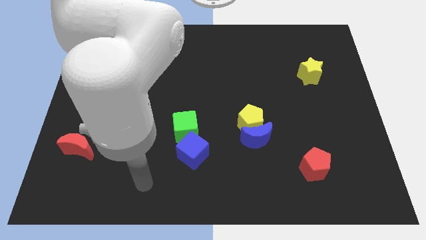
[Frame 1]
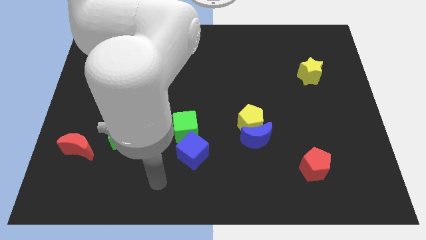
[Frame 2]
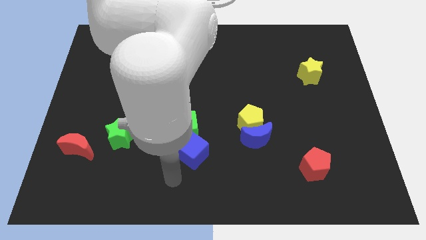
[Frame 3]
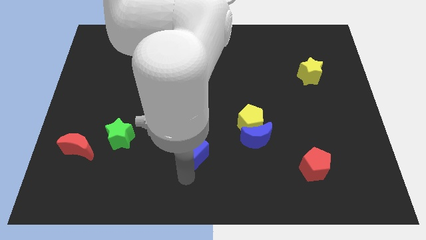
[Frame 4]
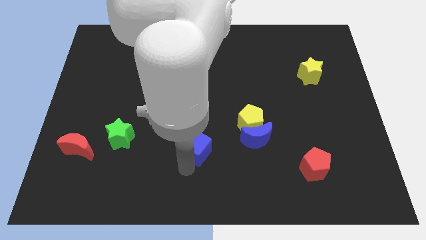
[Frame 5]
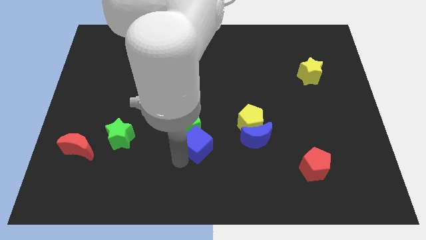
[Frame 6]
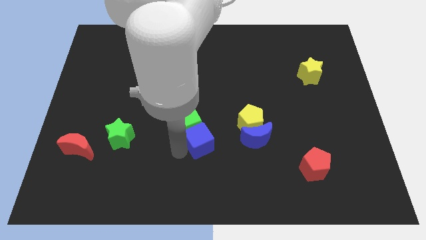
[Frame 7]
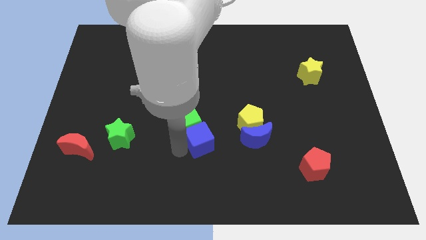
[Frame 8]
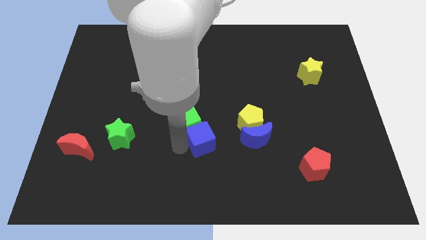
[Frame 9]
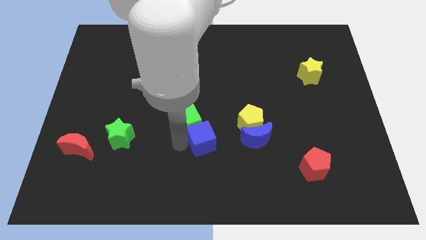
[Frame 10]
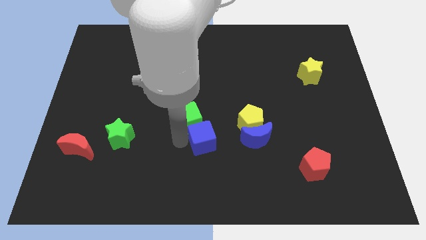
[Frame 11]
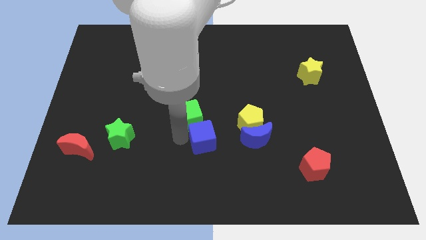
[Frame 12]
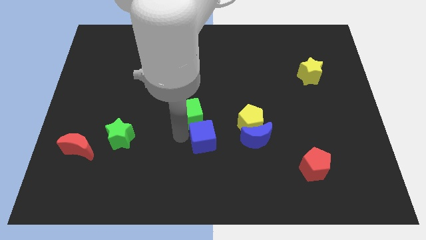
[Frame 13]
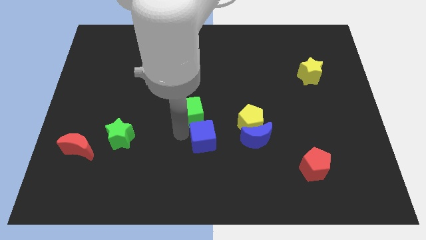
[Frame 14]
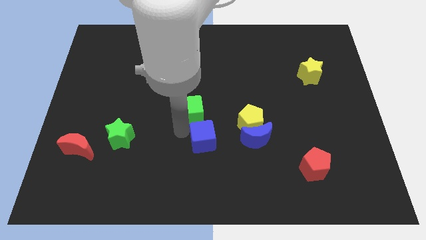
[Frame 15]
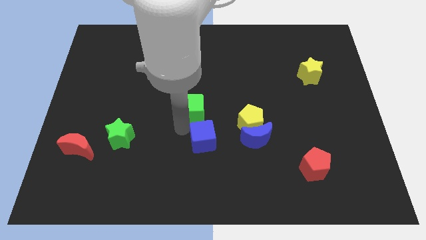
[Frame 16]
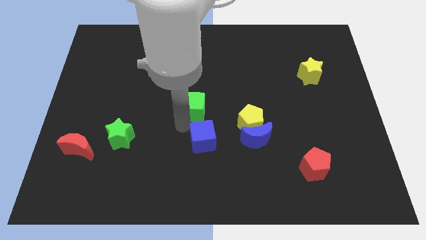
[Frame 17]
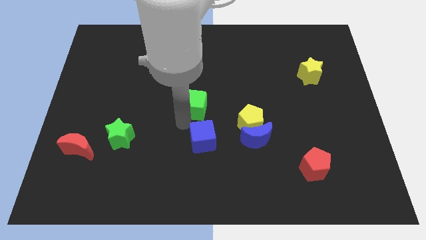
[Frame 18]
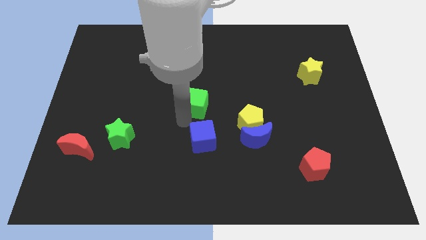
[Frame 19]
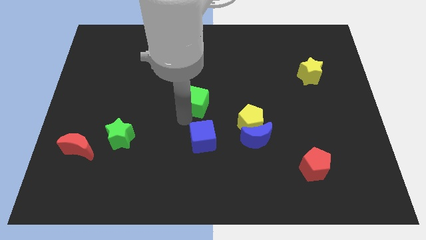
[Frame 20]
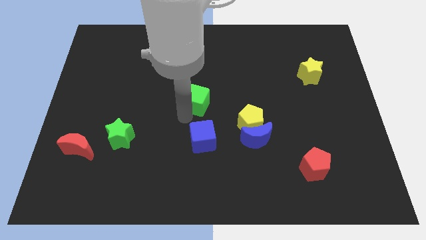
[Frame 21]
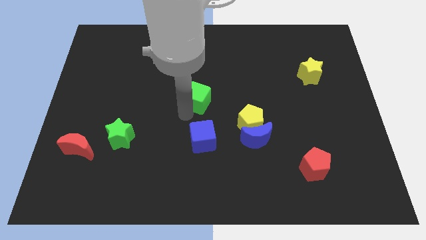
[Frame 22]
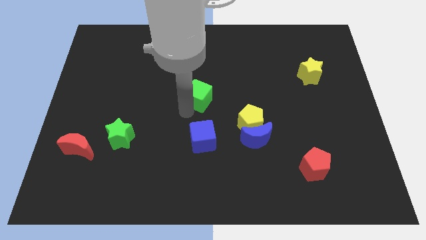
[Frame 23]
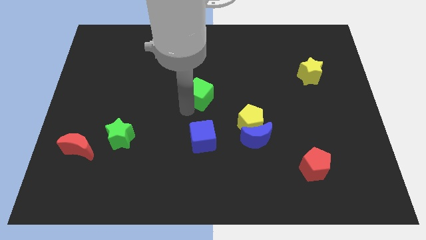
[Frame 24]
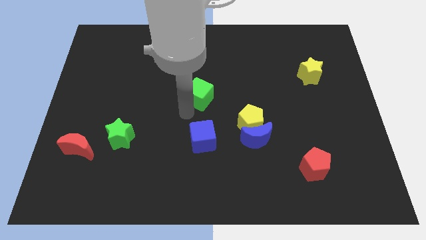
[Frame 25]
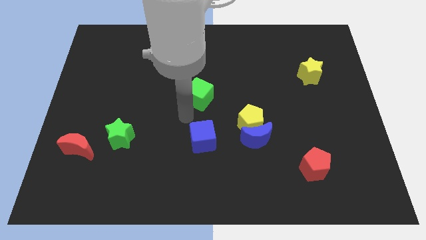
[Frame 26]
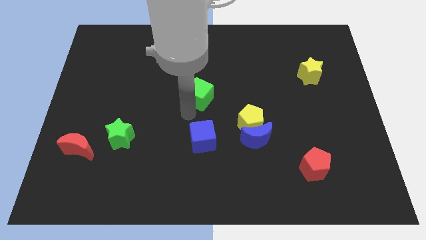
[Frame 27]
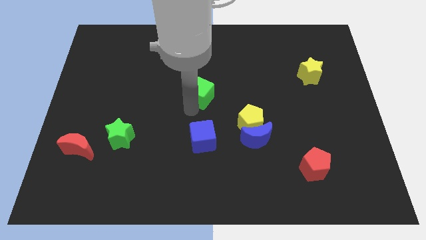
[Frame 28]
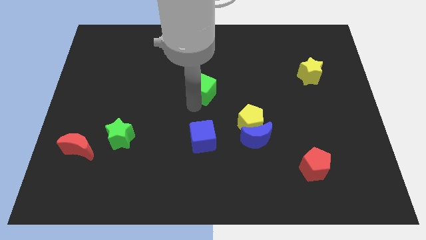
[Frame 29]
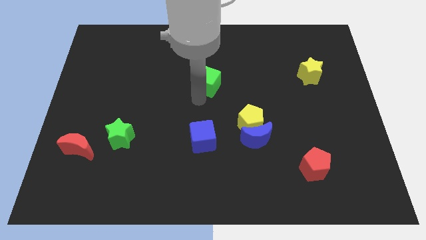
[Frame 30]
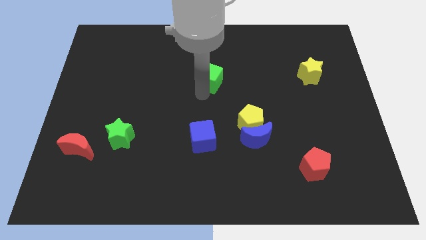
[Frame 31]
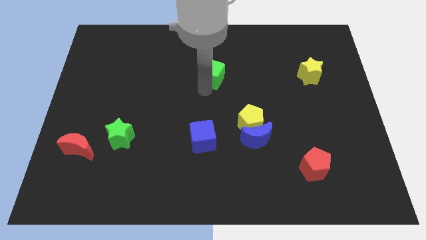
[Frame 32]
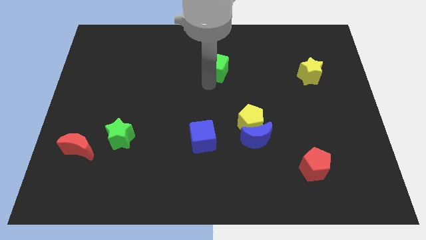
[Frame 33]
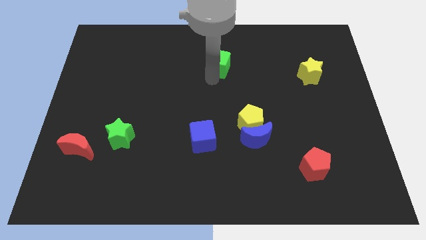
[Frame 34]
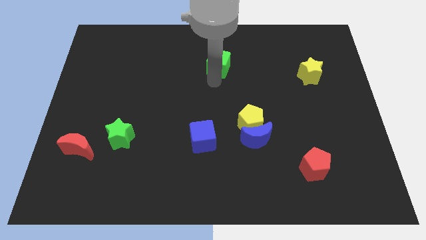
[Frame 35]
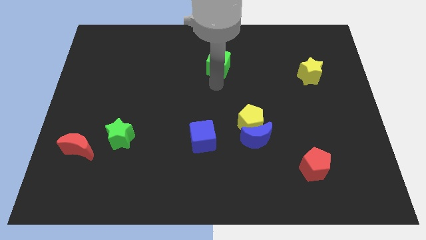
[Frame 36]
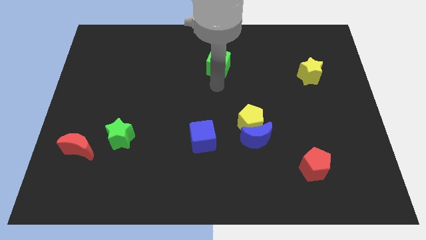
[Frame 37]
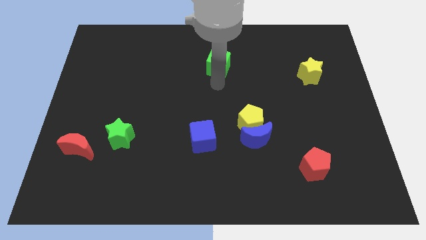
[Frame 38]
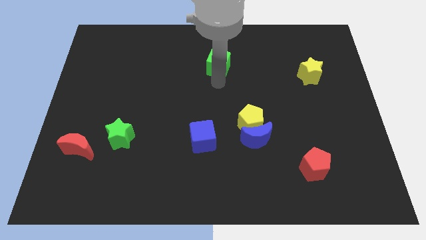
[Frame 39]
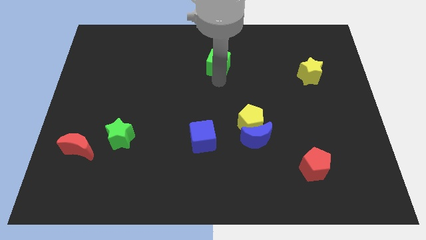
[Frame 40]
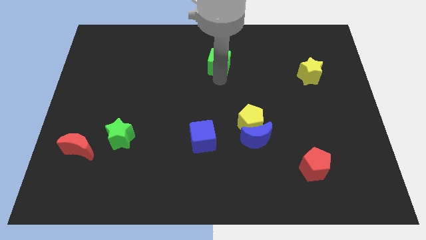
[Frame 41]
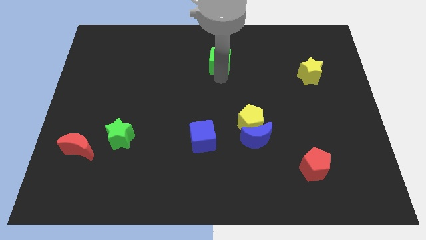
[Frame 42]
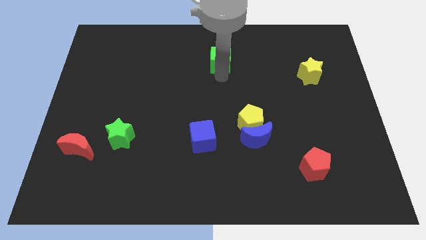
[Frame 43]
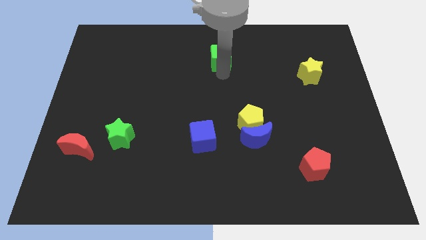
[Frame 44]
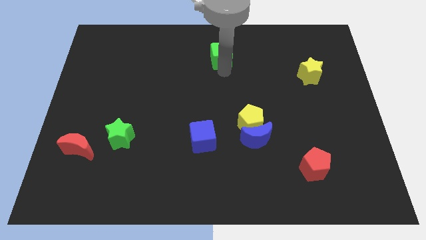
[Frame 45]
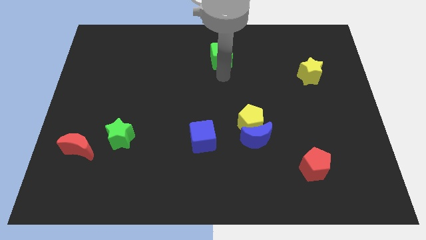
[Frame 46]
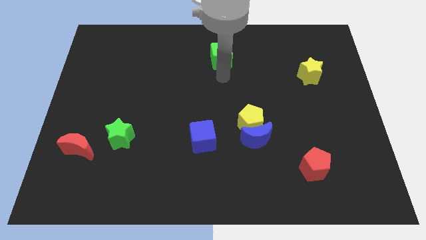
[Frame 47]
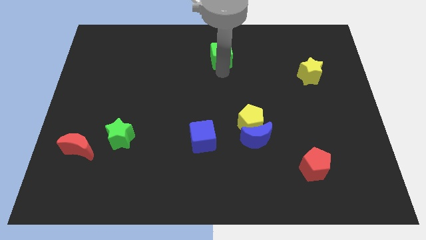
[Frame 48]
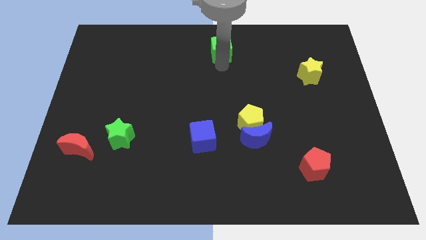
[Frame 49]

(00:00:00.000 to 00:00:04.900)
slide the green cube to the top side

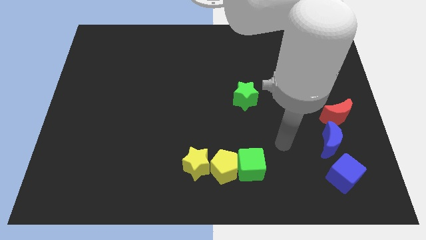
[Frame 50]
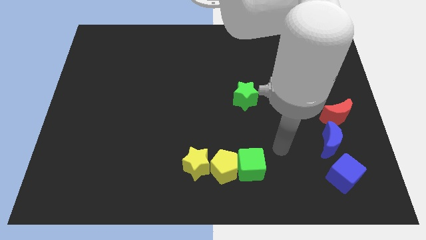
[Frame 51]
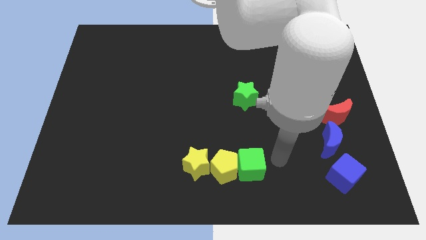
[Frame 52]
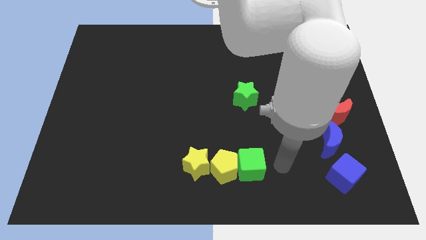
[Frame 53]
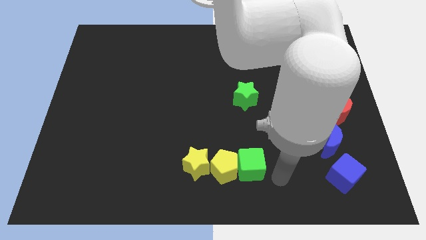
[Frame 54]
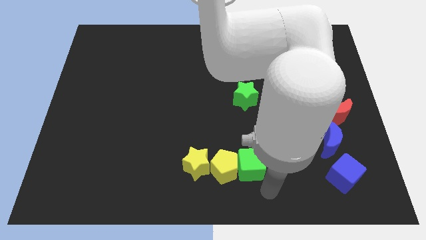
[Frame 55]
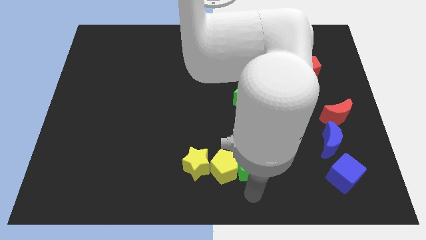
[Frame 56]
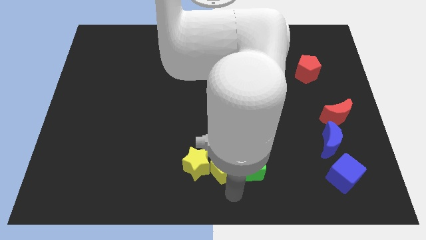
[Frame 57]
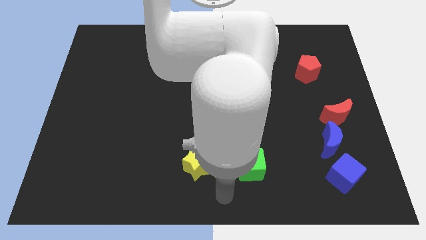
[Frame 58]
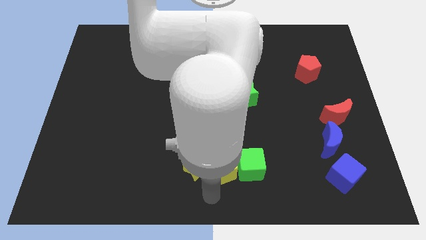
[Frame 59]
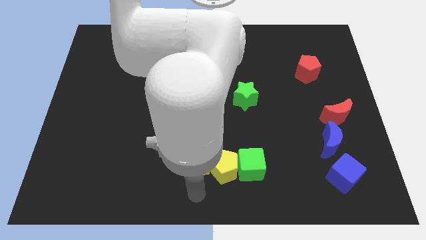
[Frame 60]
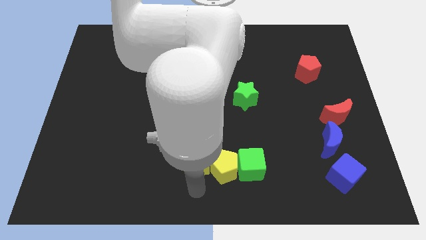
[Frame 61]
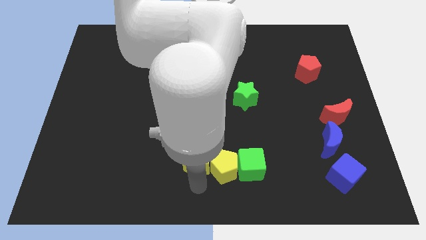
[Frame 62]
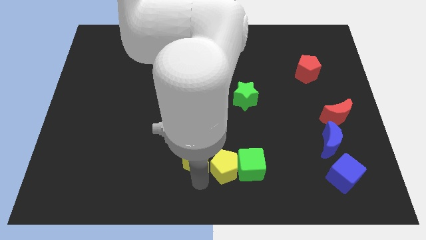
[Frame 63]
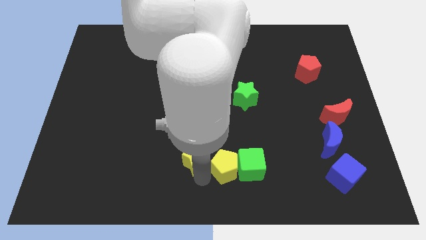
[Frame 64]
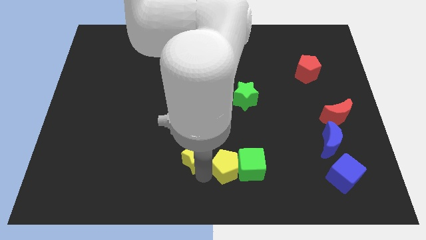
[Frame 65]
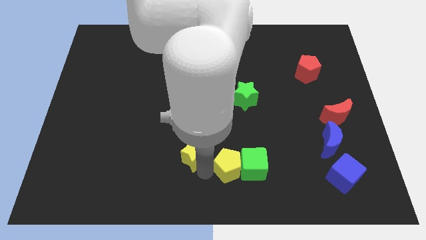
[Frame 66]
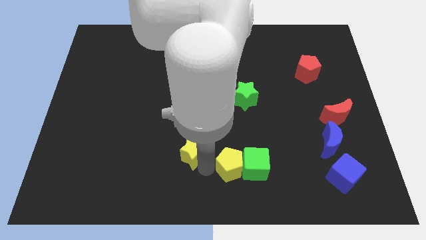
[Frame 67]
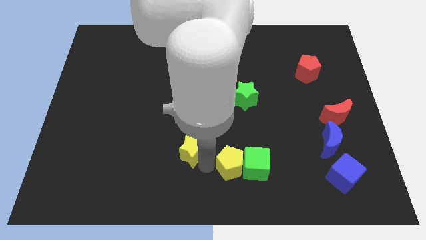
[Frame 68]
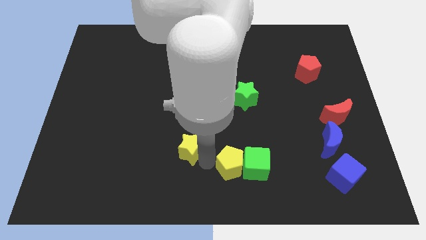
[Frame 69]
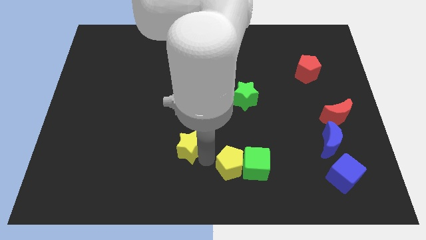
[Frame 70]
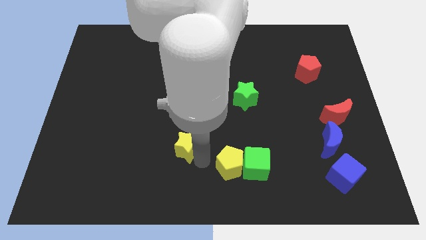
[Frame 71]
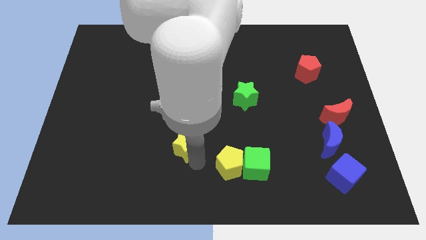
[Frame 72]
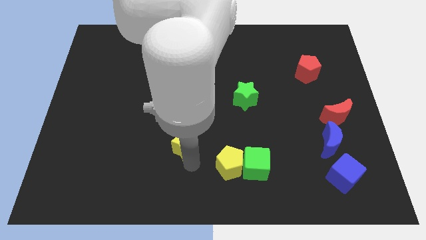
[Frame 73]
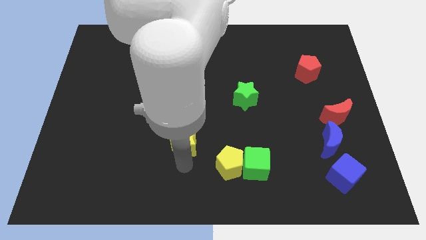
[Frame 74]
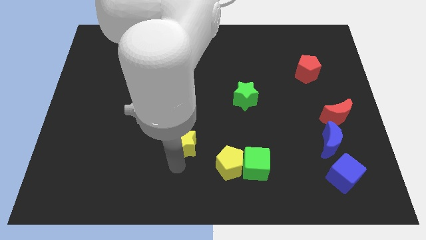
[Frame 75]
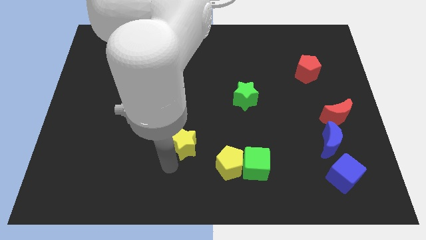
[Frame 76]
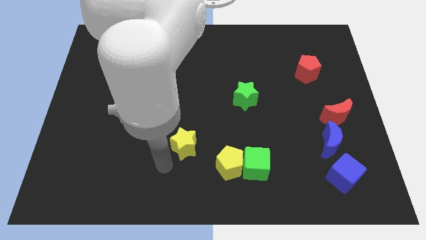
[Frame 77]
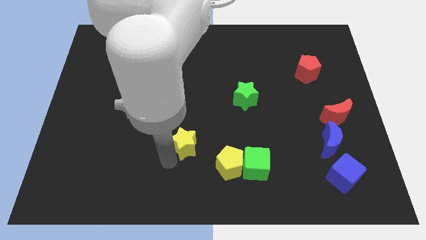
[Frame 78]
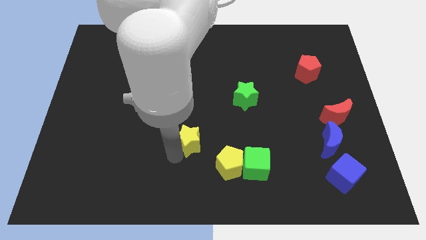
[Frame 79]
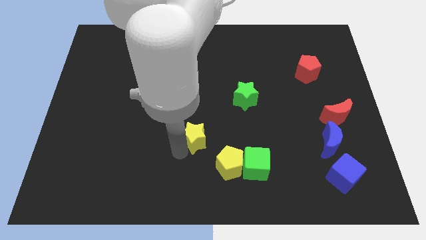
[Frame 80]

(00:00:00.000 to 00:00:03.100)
slide the yellow star to the center
